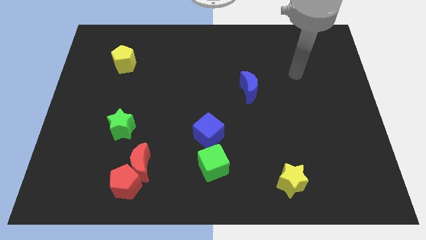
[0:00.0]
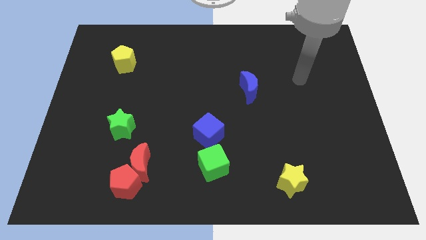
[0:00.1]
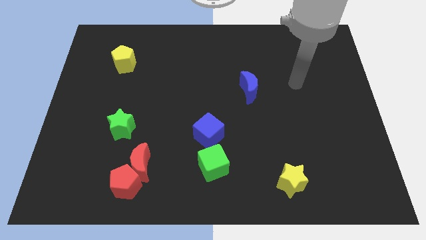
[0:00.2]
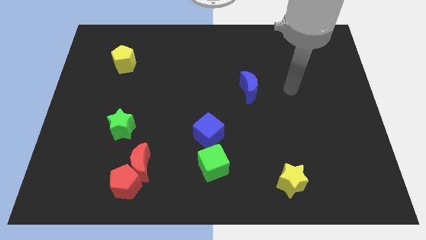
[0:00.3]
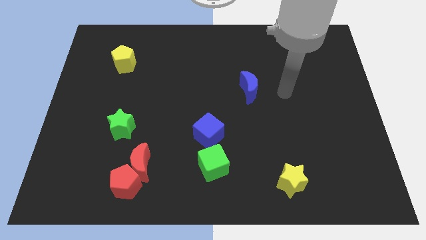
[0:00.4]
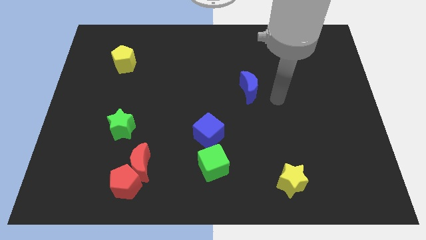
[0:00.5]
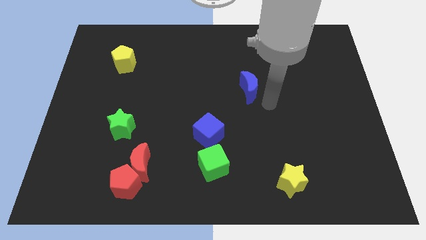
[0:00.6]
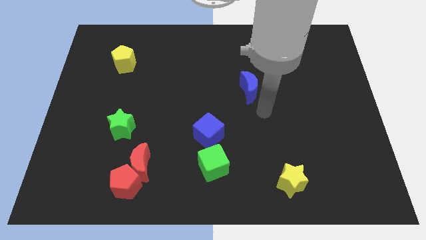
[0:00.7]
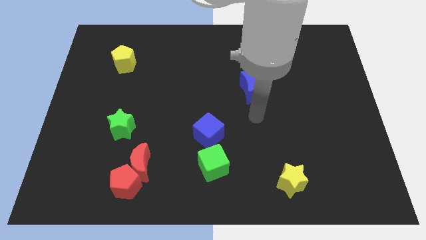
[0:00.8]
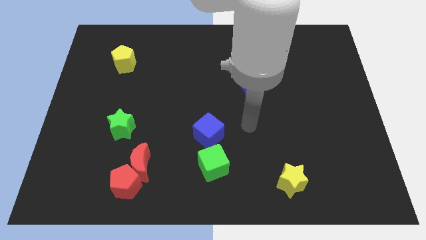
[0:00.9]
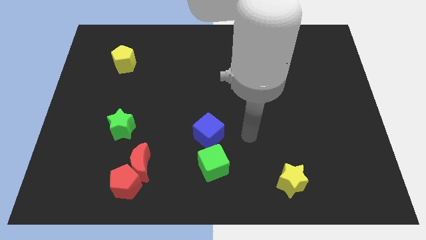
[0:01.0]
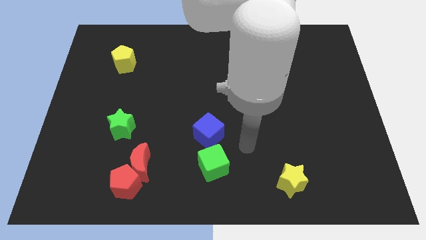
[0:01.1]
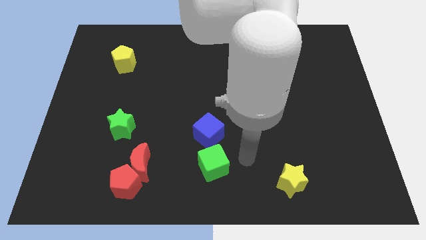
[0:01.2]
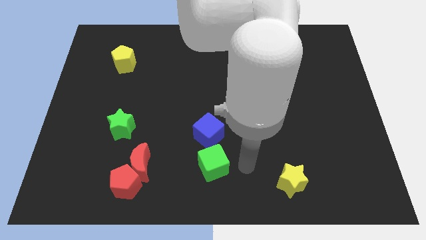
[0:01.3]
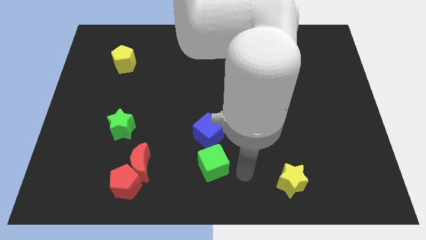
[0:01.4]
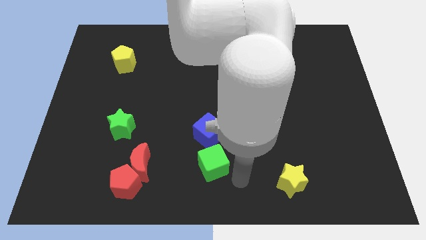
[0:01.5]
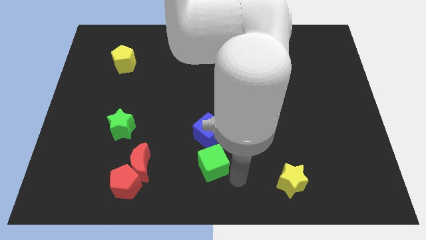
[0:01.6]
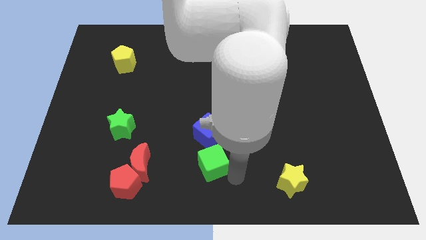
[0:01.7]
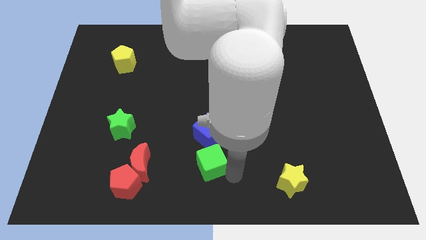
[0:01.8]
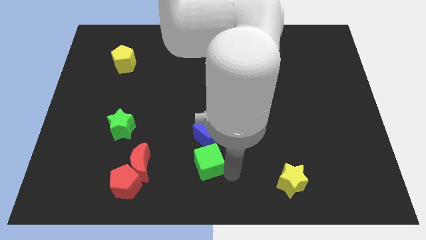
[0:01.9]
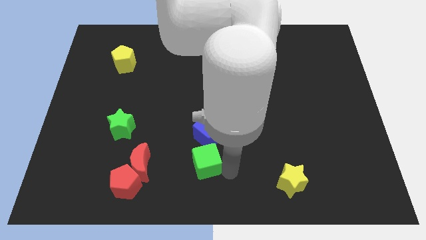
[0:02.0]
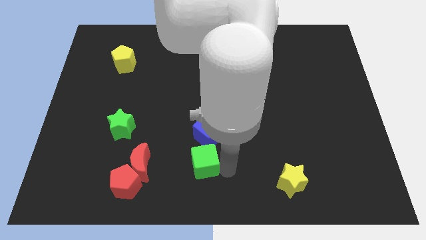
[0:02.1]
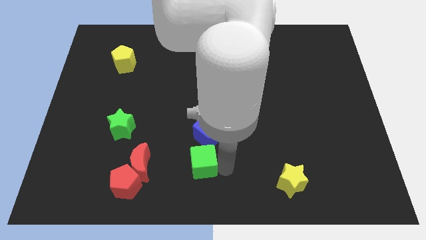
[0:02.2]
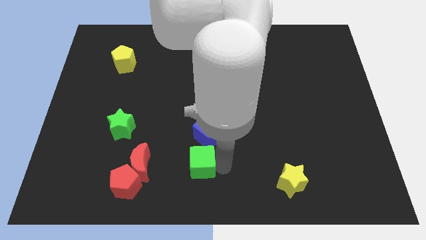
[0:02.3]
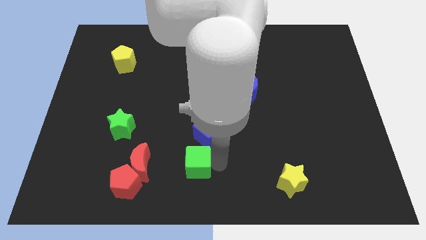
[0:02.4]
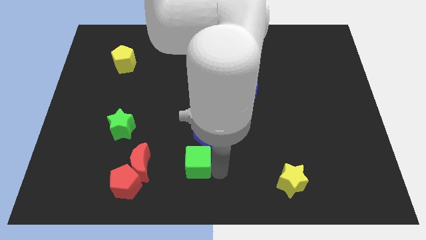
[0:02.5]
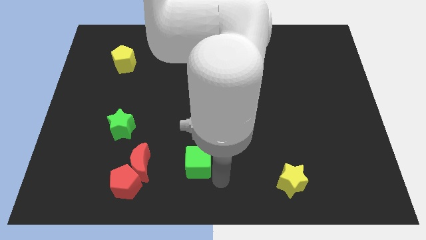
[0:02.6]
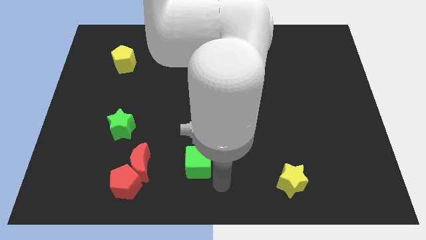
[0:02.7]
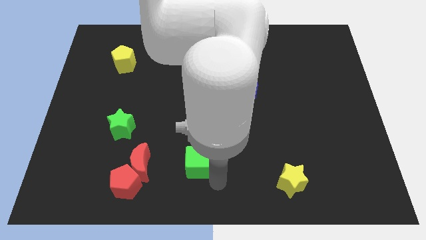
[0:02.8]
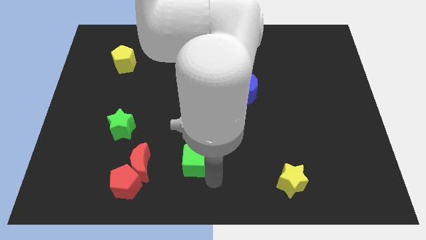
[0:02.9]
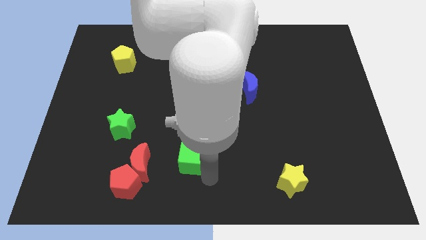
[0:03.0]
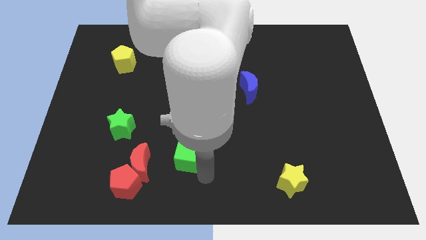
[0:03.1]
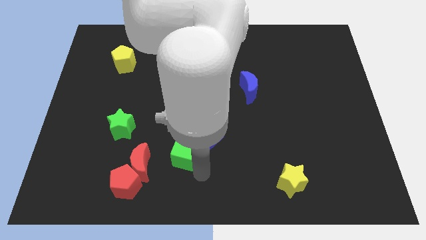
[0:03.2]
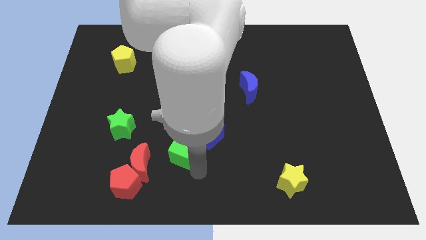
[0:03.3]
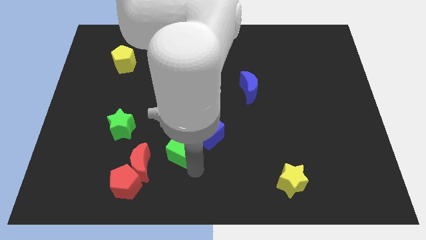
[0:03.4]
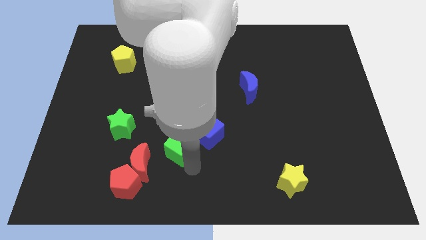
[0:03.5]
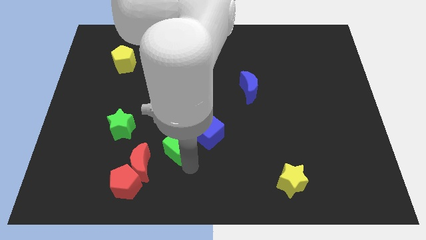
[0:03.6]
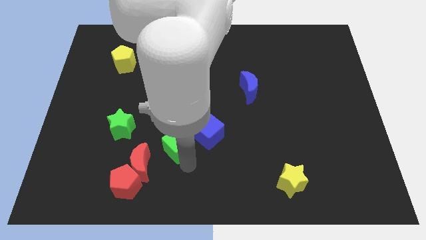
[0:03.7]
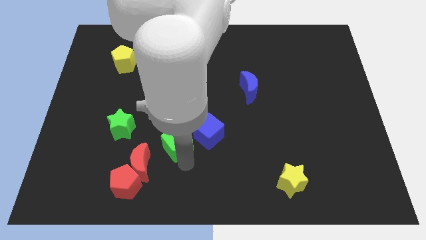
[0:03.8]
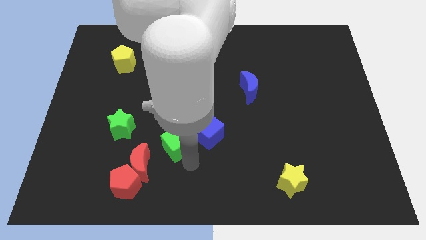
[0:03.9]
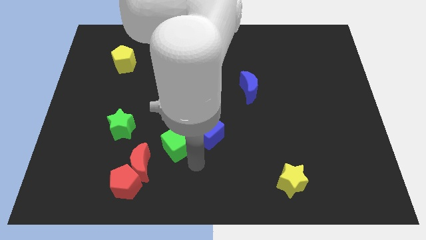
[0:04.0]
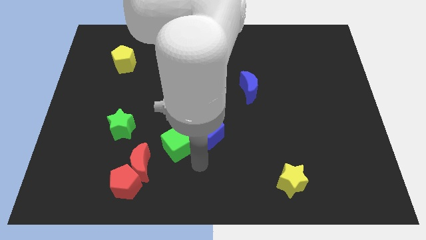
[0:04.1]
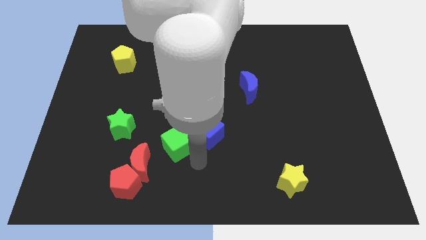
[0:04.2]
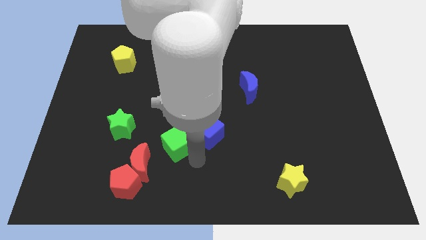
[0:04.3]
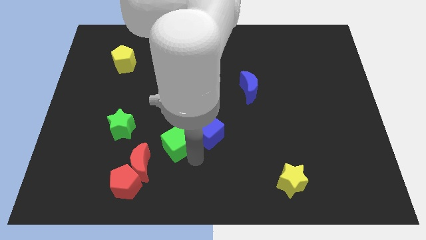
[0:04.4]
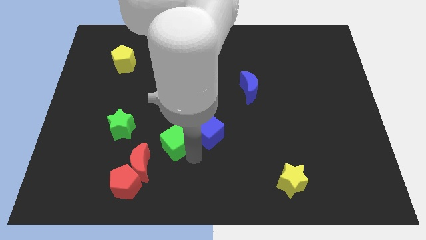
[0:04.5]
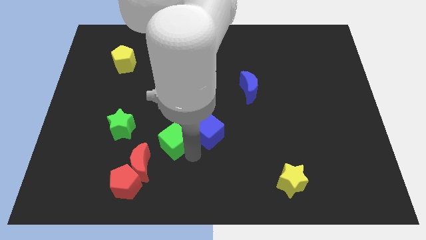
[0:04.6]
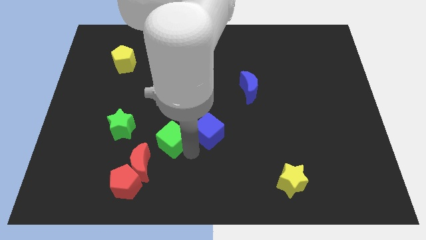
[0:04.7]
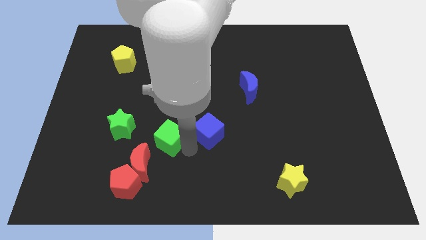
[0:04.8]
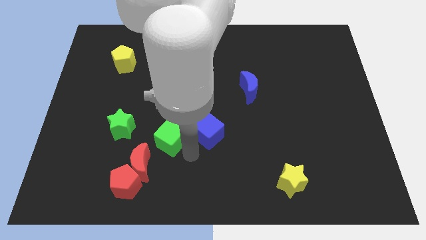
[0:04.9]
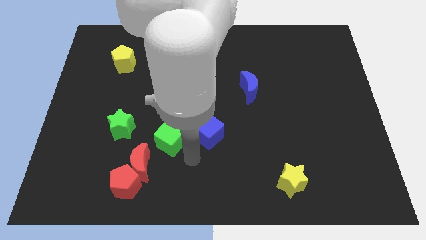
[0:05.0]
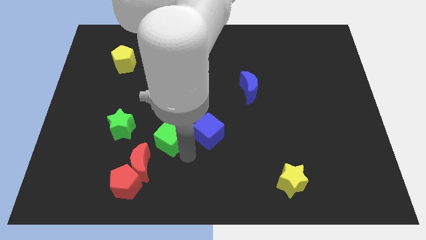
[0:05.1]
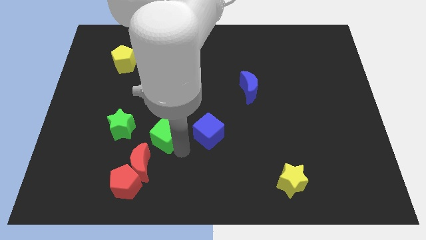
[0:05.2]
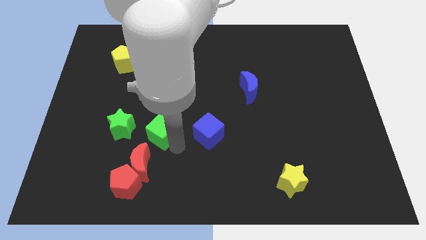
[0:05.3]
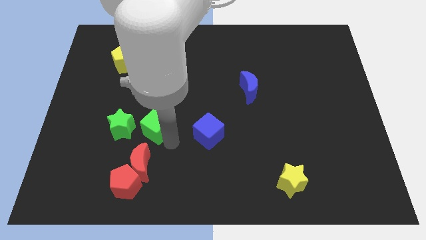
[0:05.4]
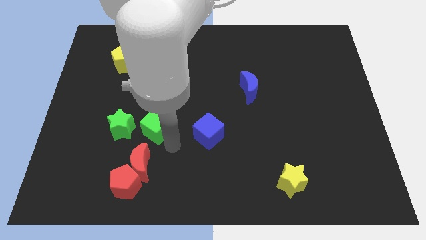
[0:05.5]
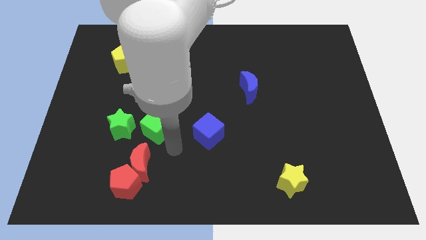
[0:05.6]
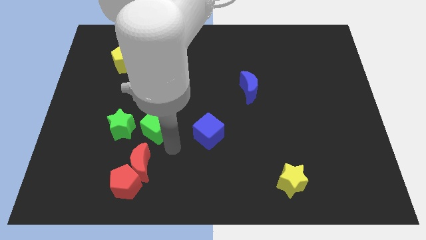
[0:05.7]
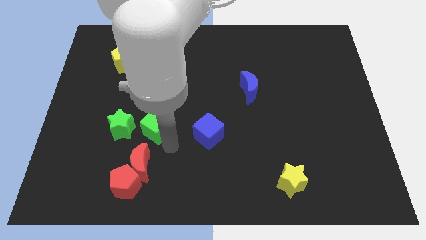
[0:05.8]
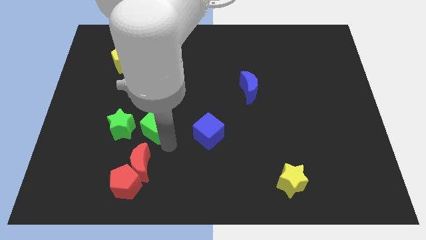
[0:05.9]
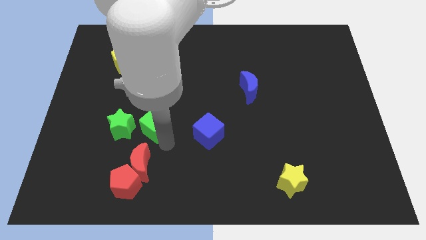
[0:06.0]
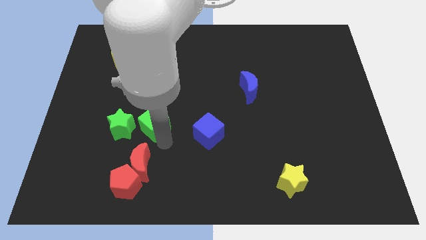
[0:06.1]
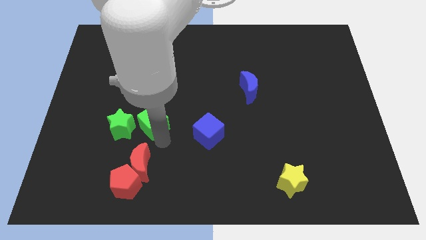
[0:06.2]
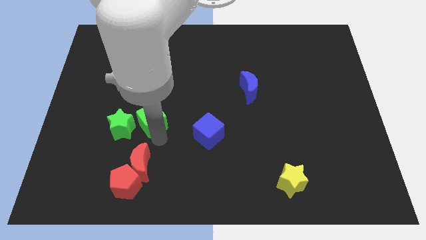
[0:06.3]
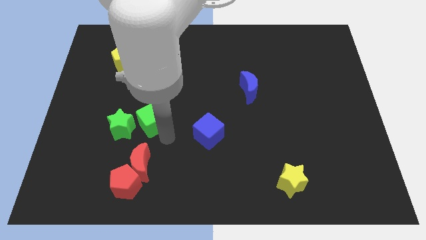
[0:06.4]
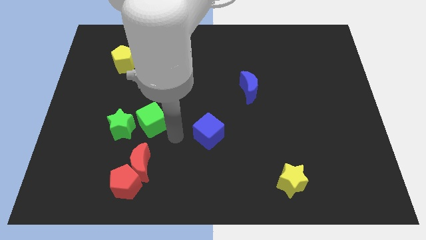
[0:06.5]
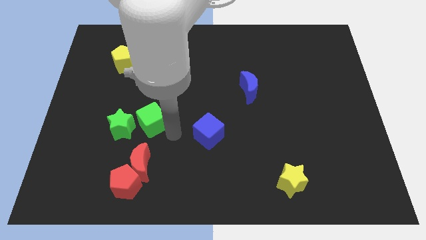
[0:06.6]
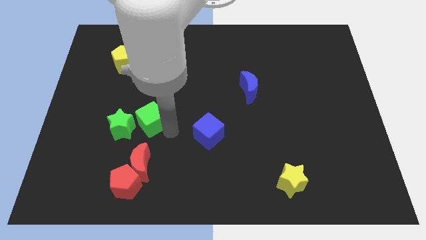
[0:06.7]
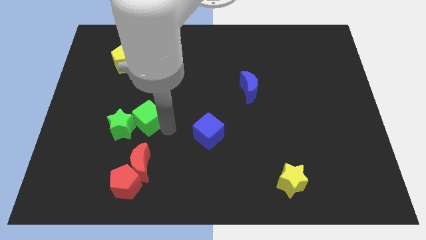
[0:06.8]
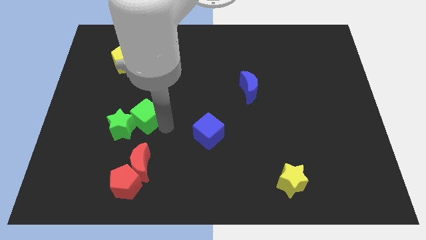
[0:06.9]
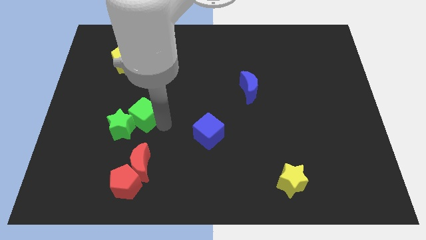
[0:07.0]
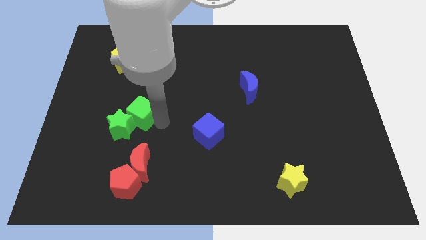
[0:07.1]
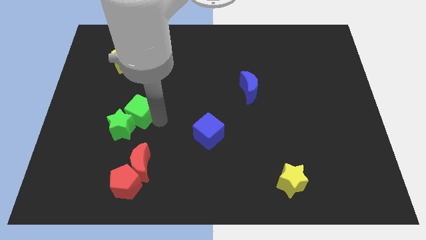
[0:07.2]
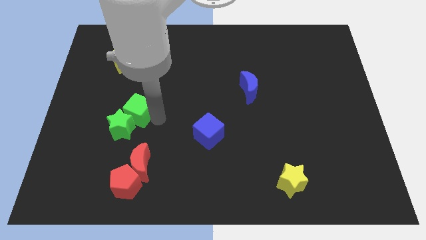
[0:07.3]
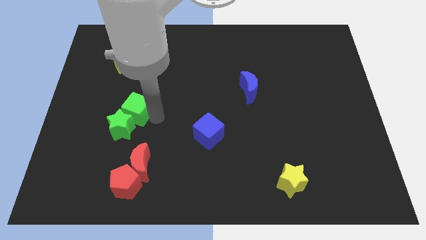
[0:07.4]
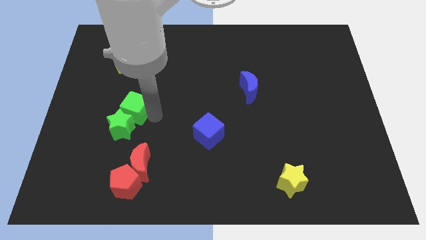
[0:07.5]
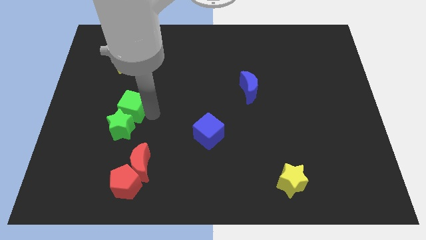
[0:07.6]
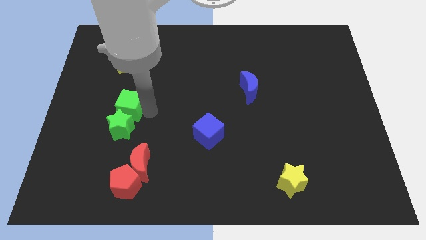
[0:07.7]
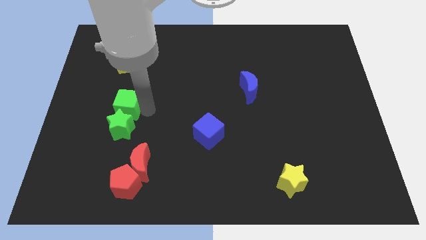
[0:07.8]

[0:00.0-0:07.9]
push the green cube to the top left side of the green star
